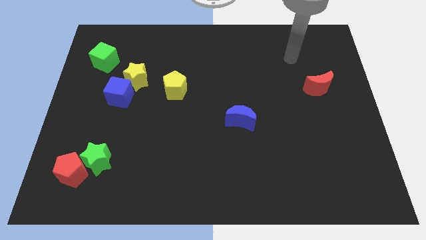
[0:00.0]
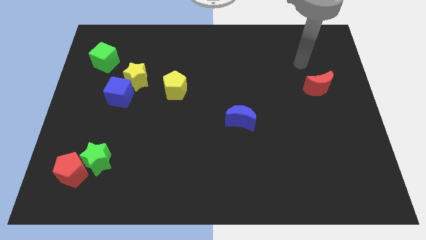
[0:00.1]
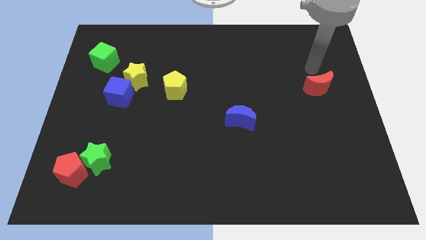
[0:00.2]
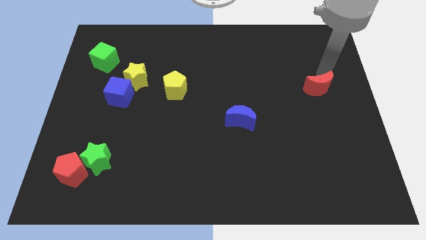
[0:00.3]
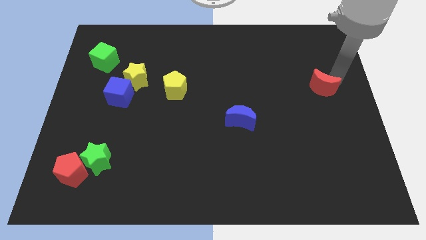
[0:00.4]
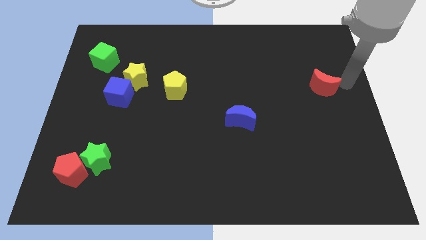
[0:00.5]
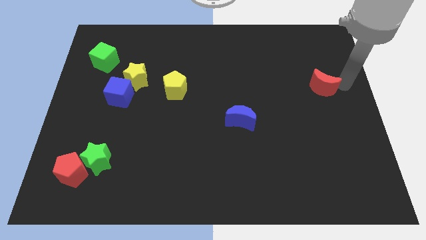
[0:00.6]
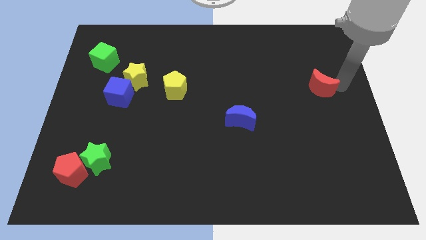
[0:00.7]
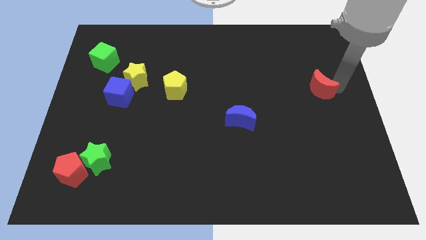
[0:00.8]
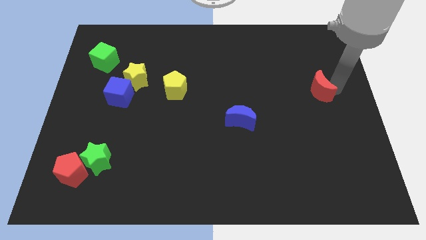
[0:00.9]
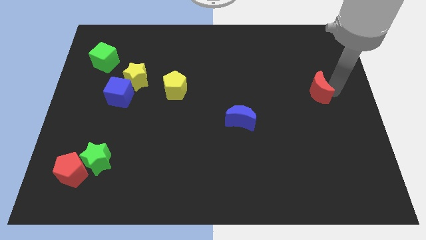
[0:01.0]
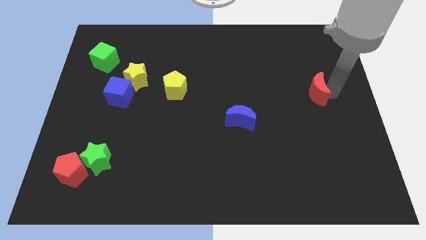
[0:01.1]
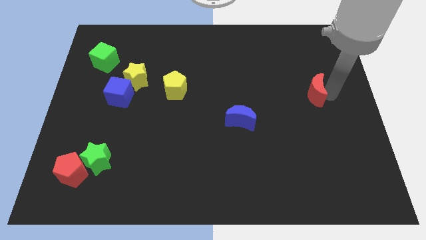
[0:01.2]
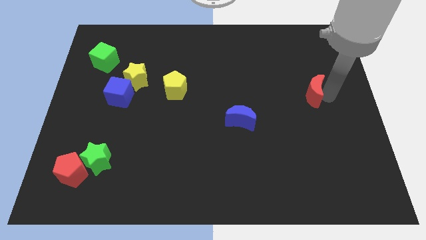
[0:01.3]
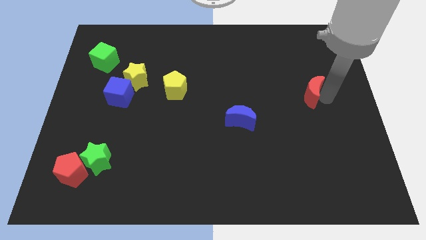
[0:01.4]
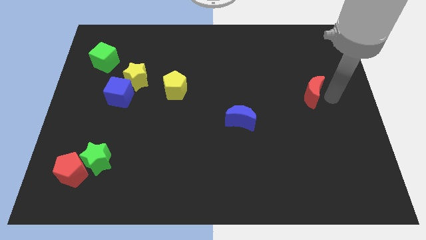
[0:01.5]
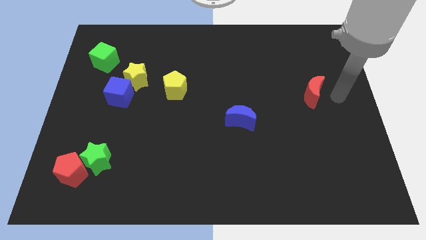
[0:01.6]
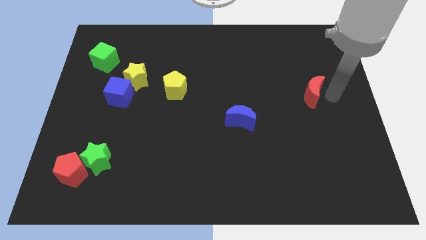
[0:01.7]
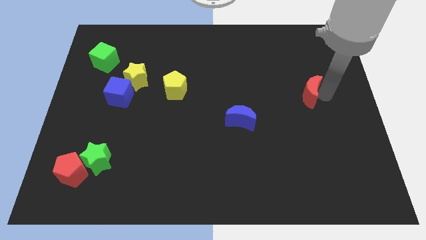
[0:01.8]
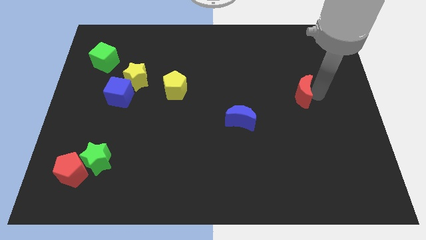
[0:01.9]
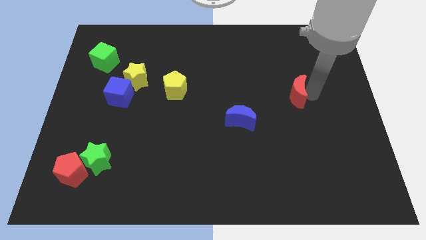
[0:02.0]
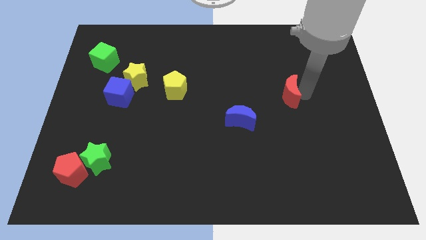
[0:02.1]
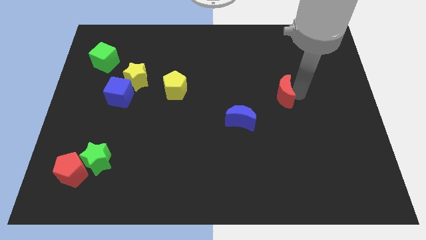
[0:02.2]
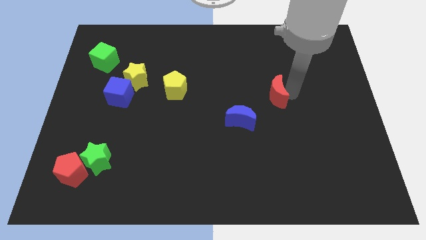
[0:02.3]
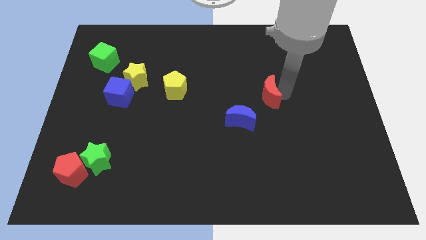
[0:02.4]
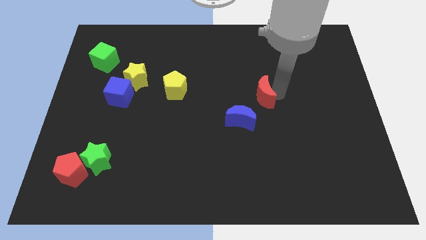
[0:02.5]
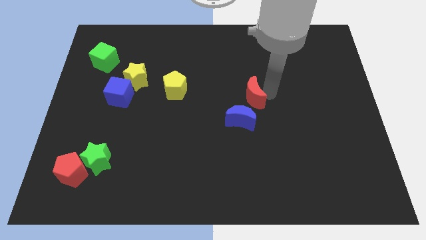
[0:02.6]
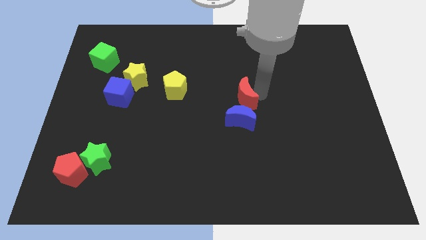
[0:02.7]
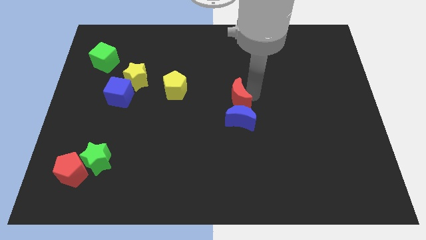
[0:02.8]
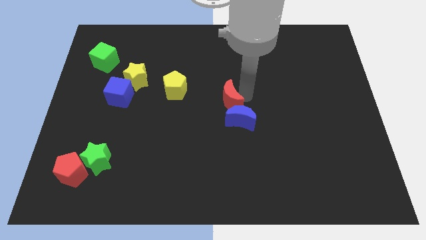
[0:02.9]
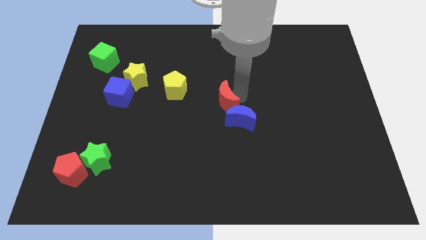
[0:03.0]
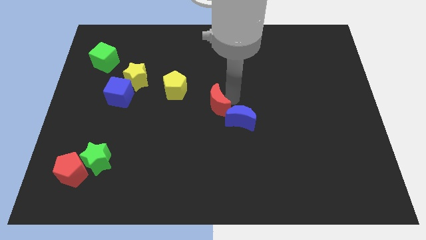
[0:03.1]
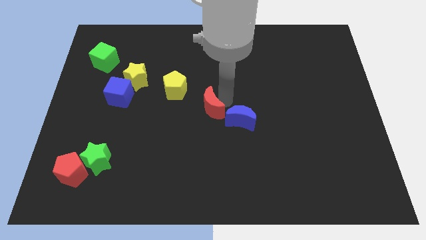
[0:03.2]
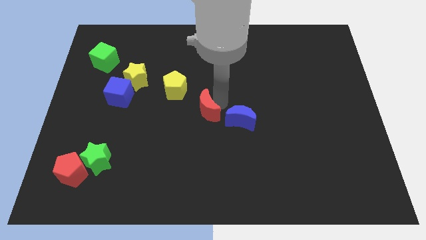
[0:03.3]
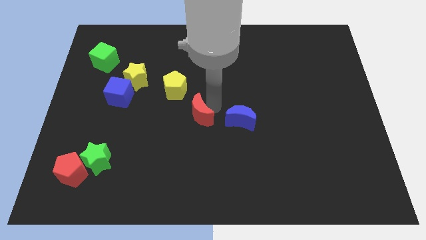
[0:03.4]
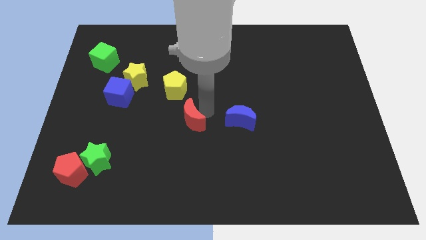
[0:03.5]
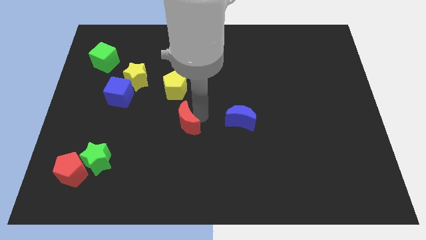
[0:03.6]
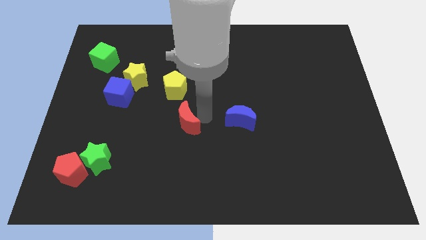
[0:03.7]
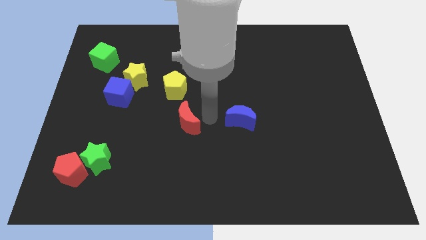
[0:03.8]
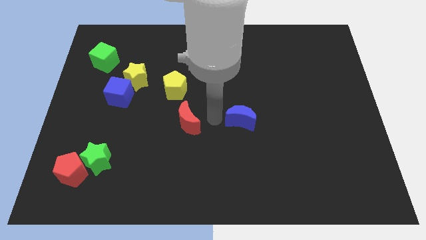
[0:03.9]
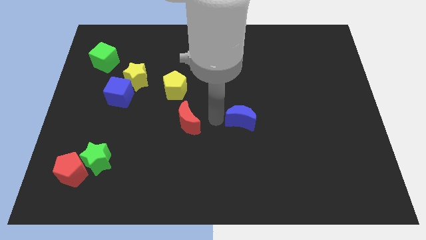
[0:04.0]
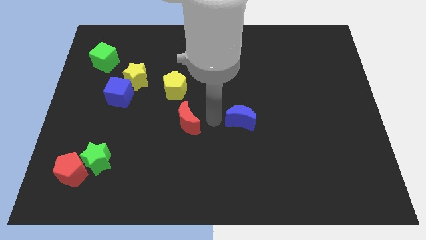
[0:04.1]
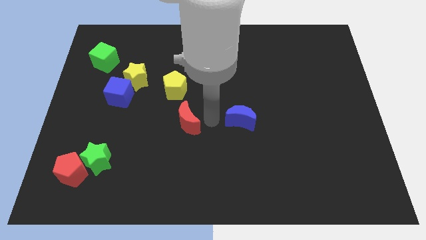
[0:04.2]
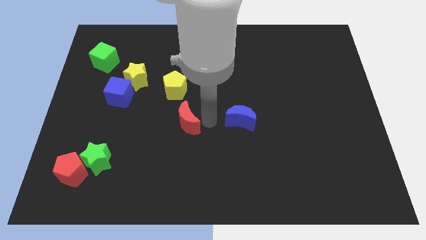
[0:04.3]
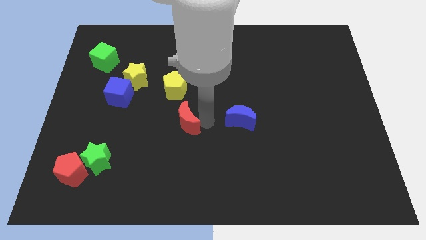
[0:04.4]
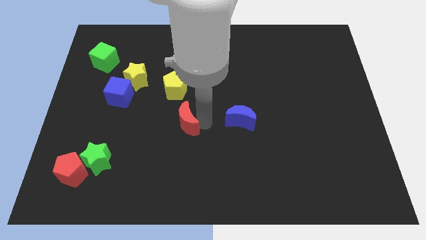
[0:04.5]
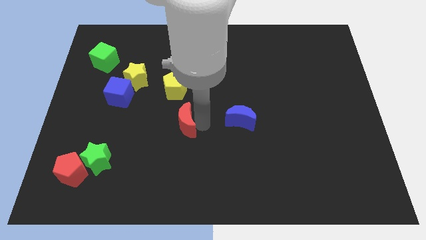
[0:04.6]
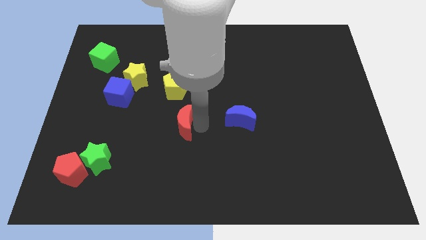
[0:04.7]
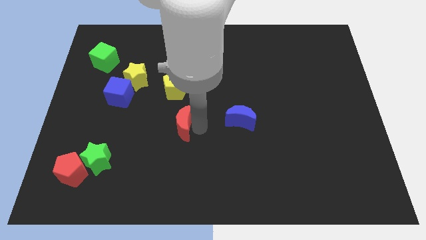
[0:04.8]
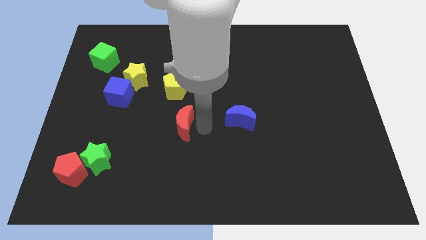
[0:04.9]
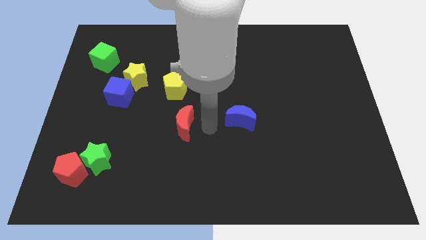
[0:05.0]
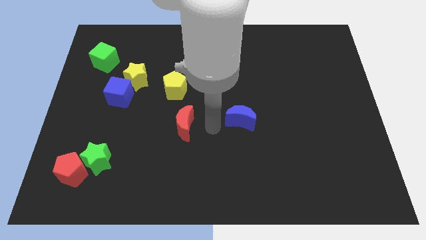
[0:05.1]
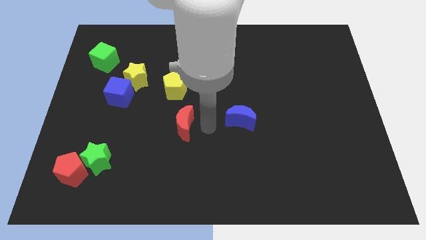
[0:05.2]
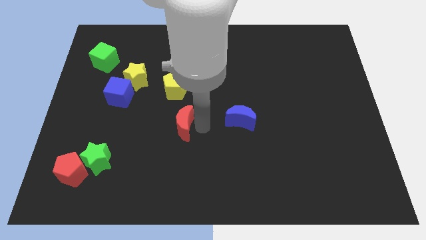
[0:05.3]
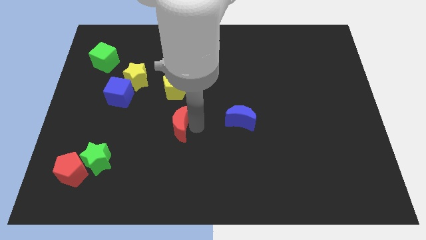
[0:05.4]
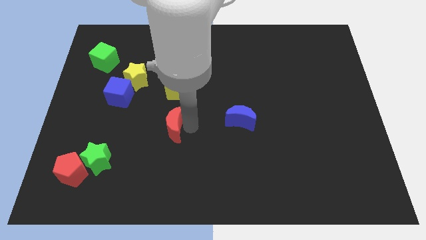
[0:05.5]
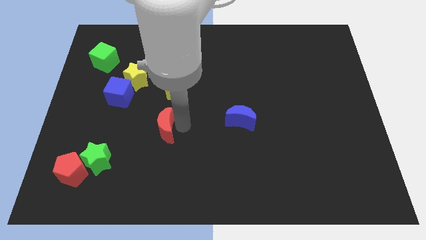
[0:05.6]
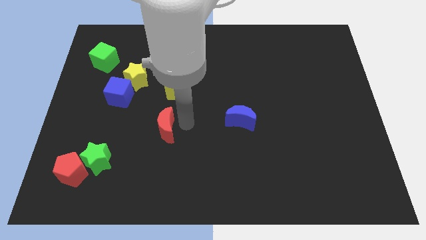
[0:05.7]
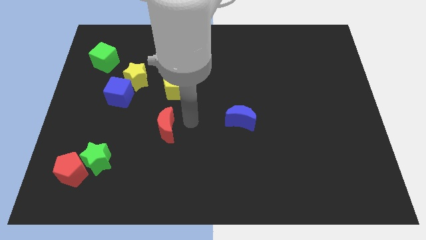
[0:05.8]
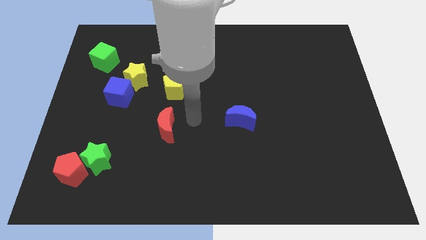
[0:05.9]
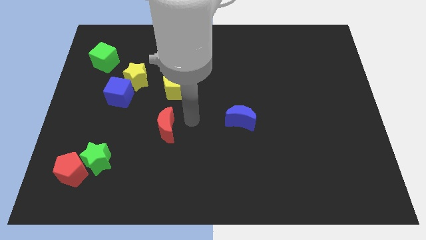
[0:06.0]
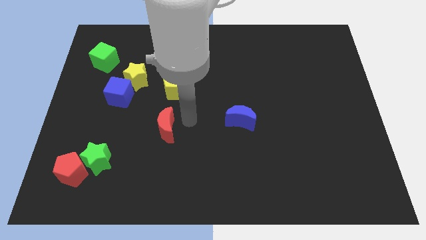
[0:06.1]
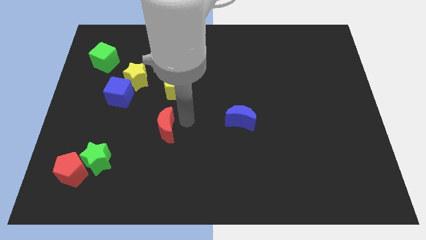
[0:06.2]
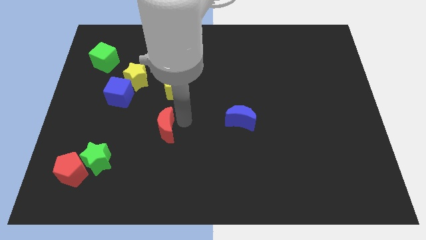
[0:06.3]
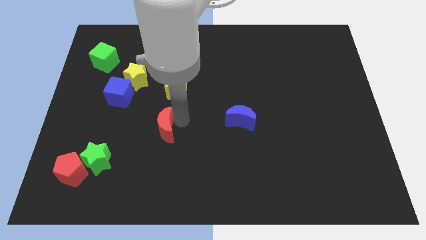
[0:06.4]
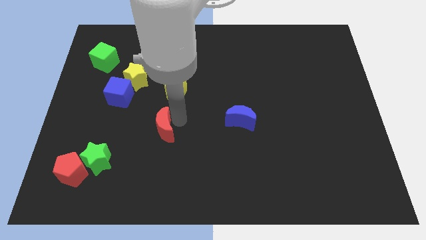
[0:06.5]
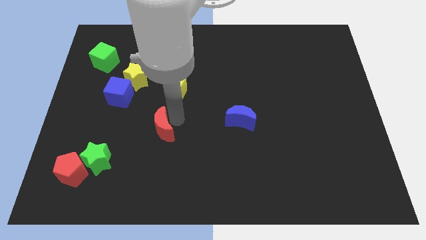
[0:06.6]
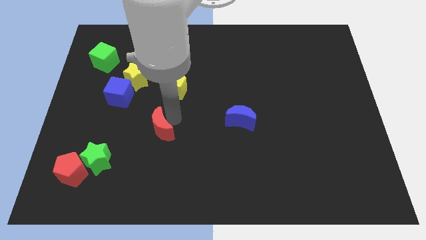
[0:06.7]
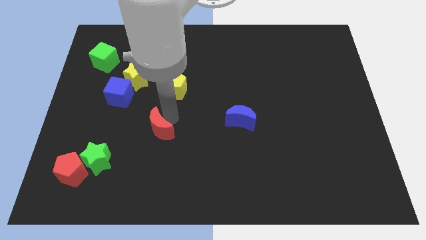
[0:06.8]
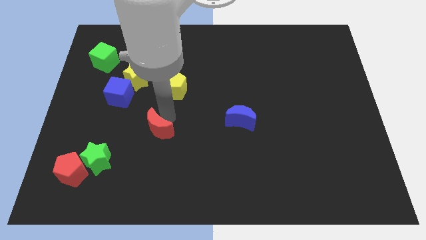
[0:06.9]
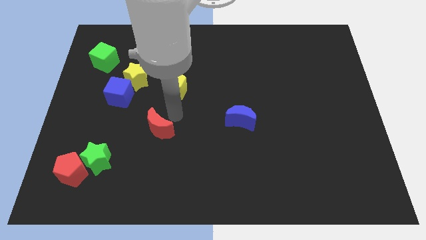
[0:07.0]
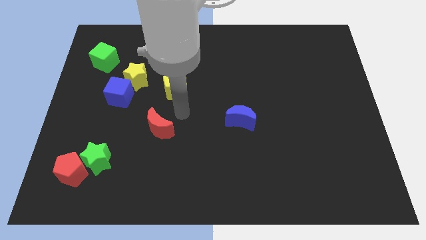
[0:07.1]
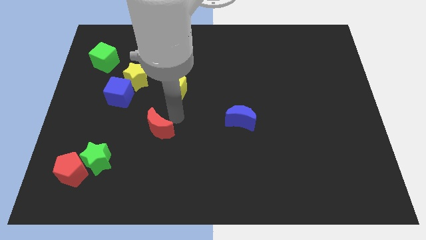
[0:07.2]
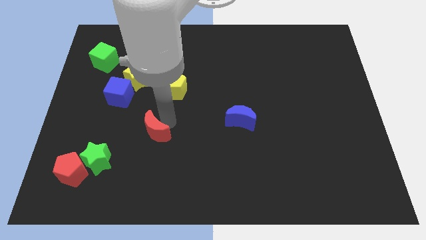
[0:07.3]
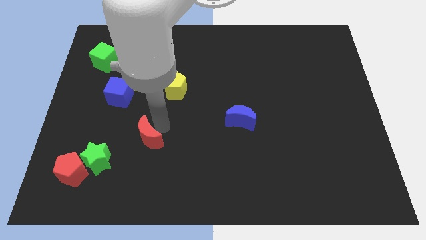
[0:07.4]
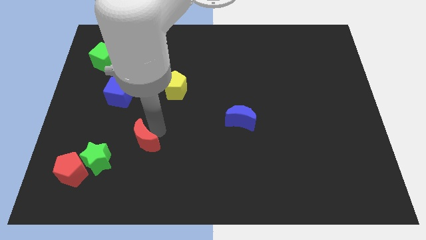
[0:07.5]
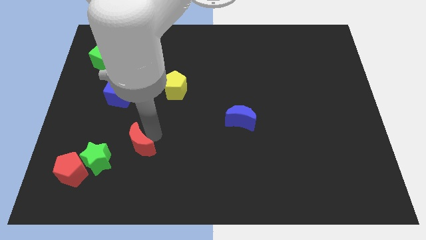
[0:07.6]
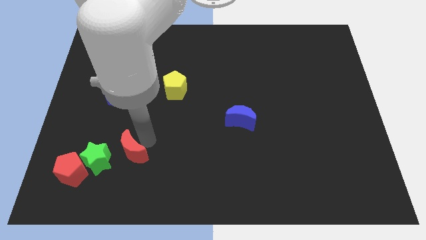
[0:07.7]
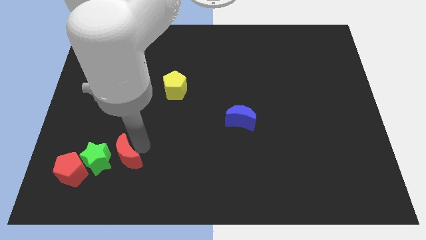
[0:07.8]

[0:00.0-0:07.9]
put the red moon next to the green star
